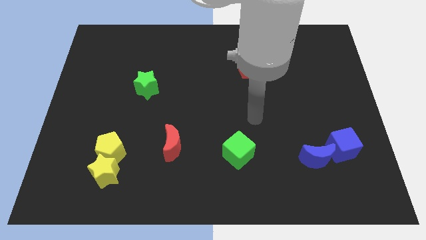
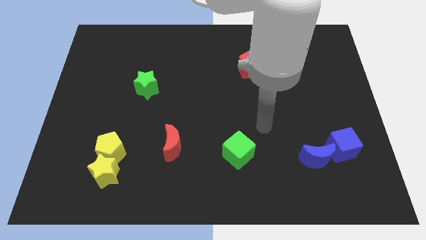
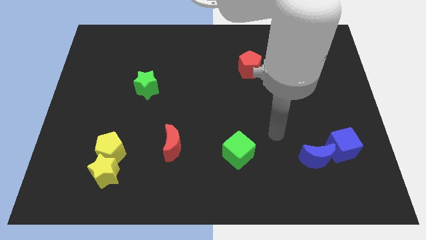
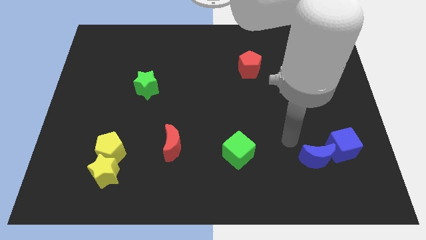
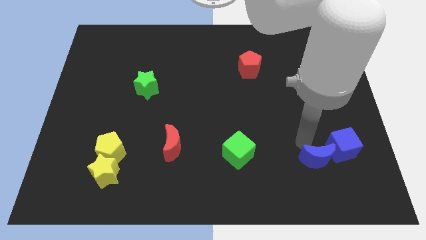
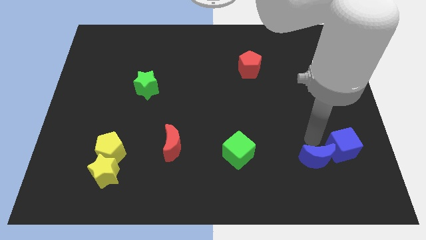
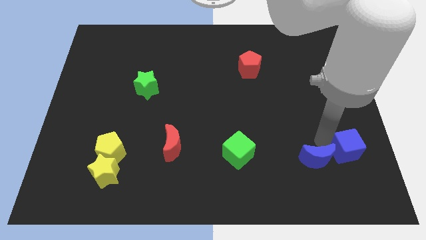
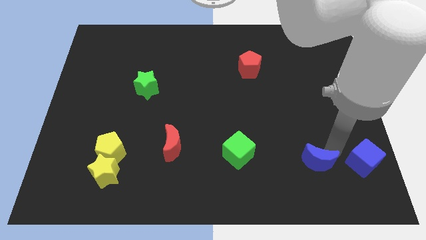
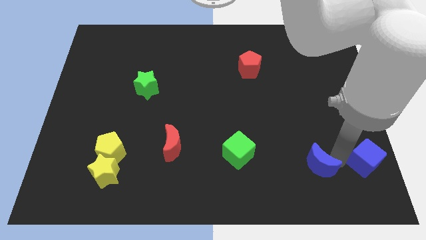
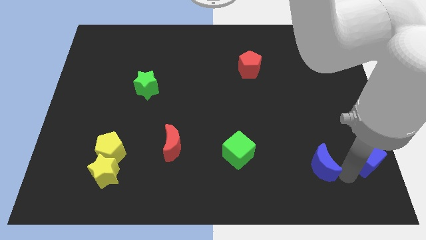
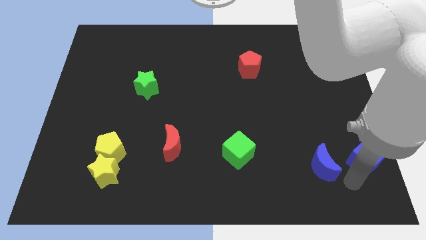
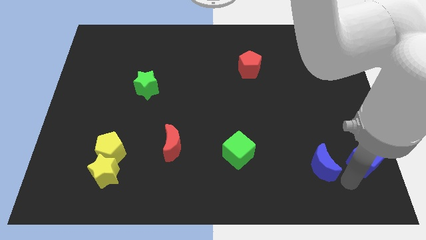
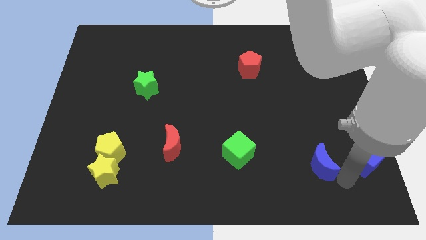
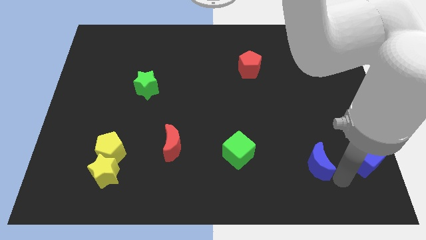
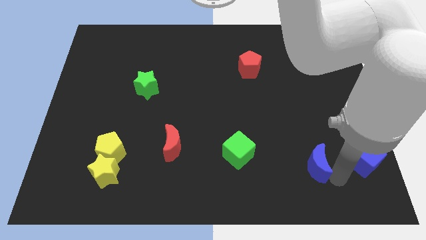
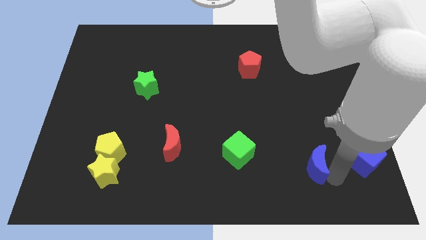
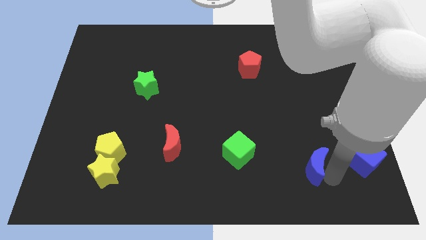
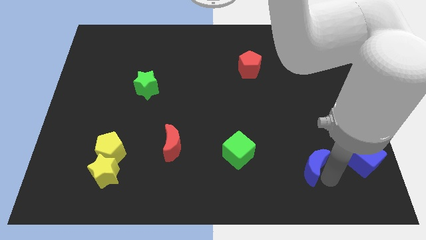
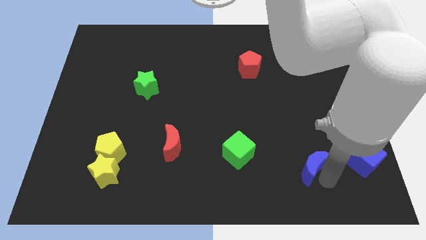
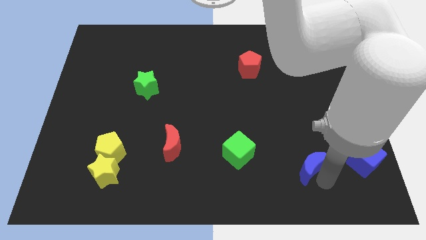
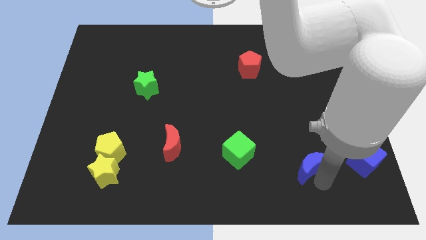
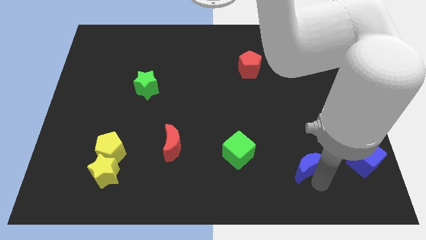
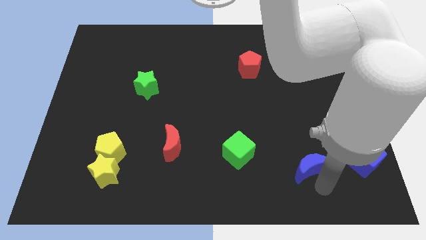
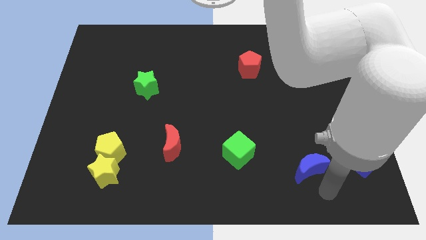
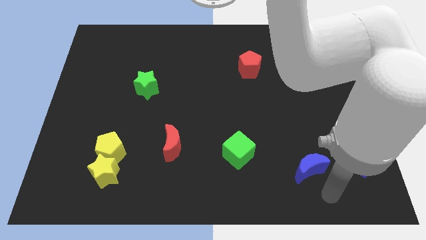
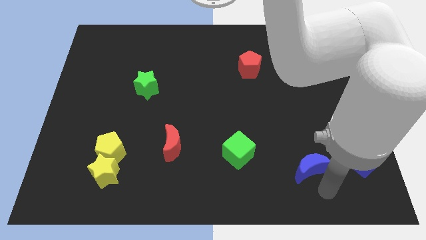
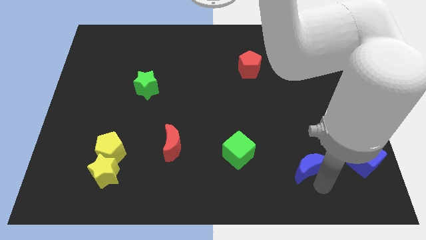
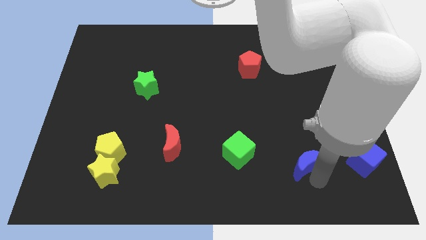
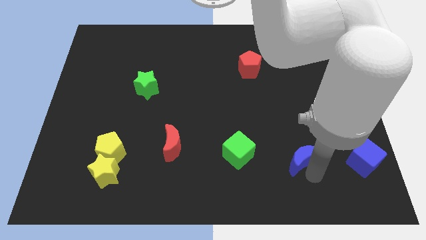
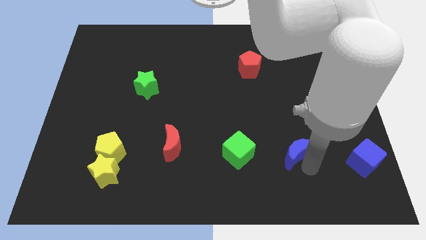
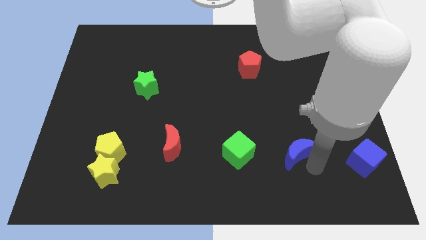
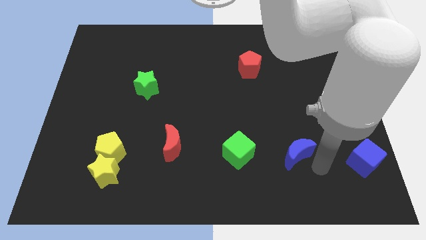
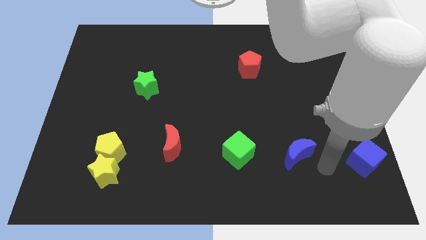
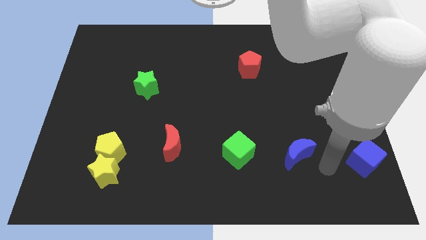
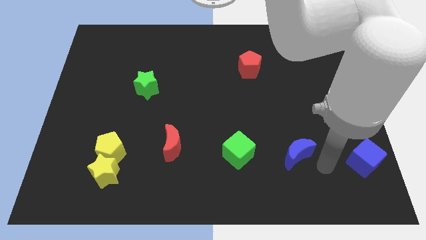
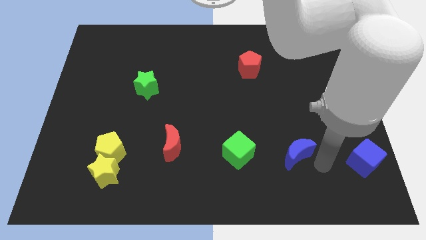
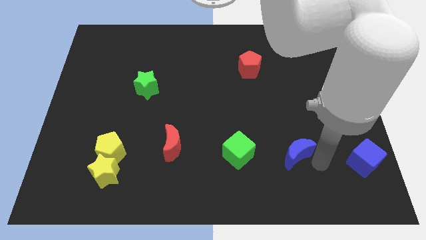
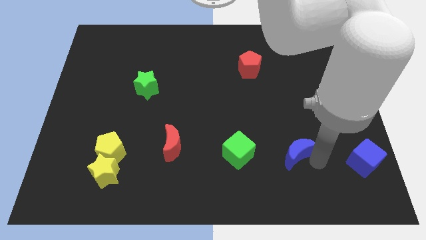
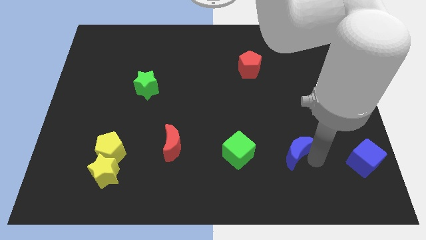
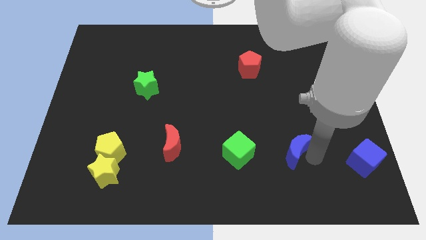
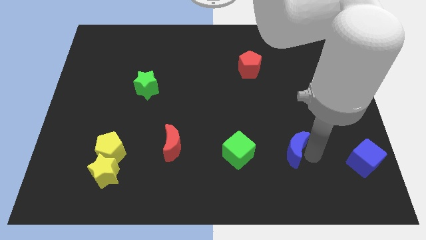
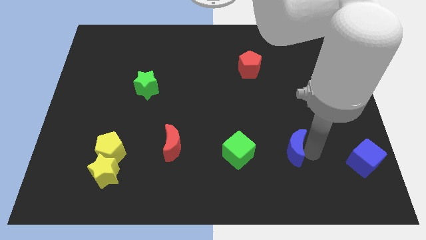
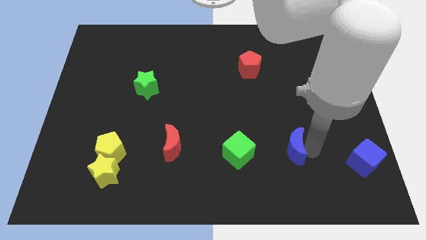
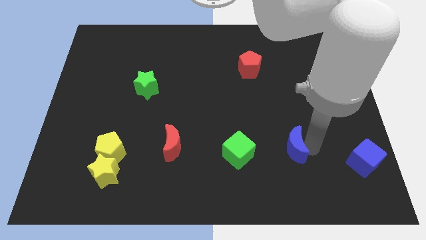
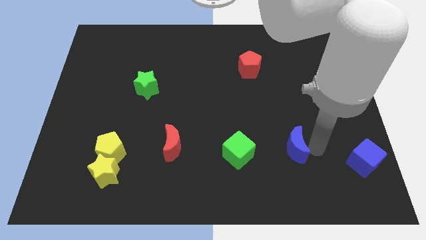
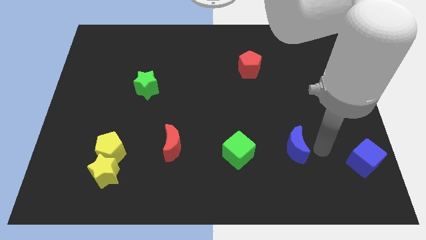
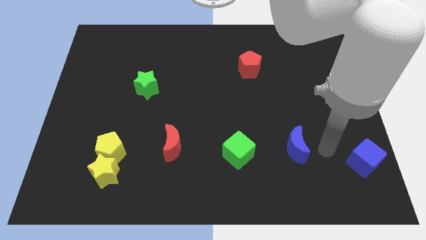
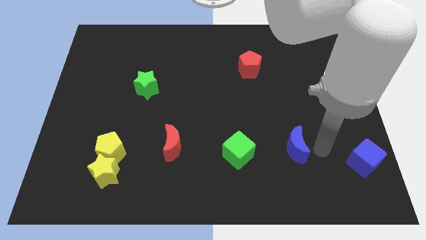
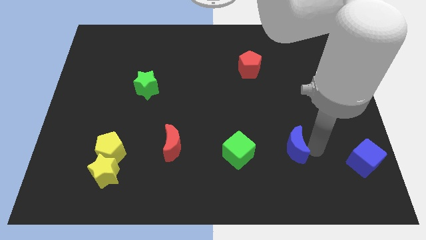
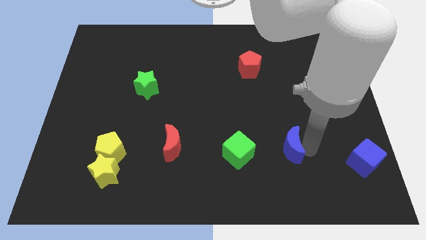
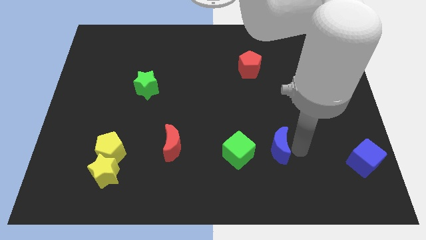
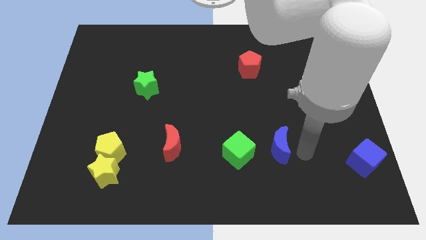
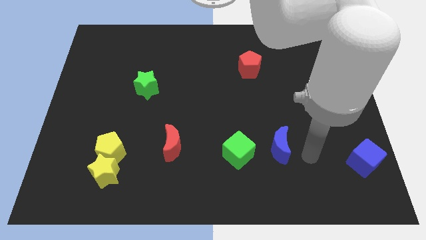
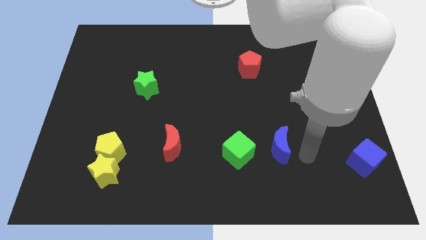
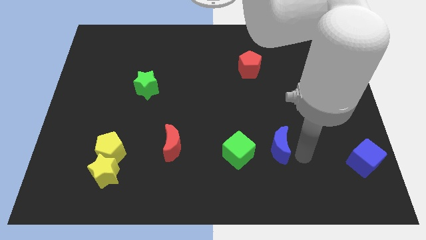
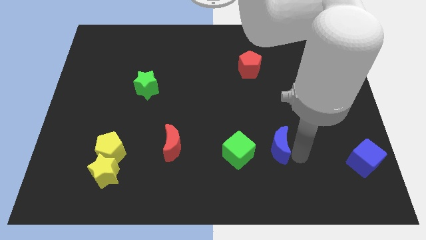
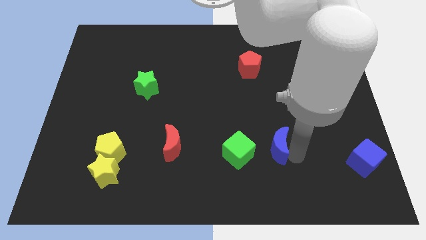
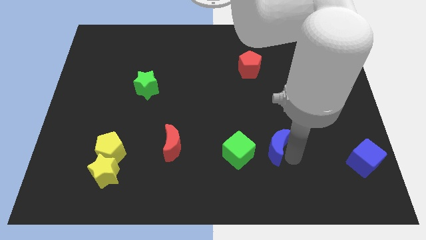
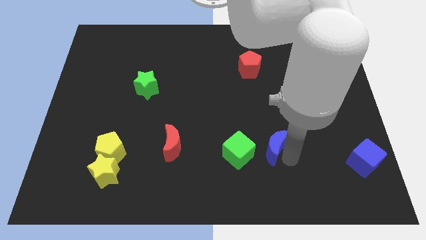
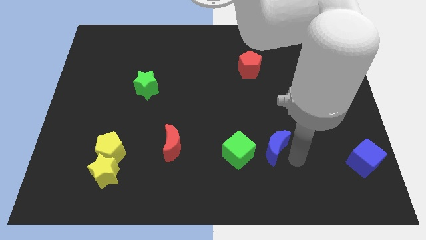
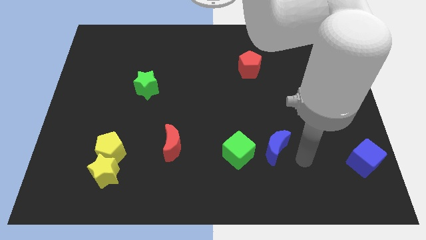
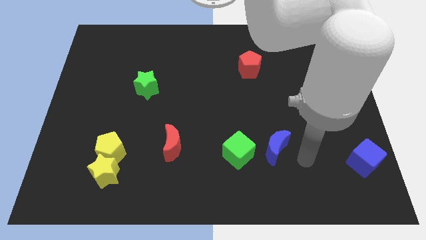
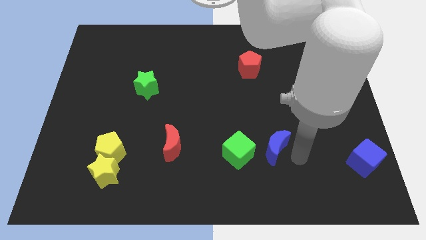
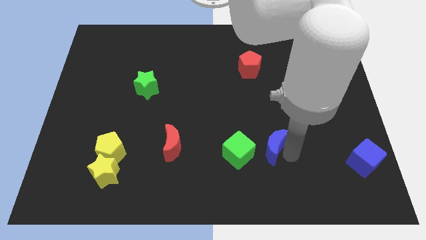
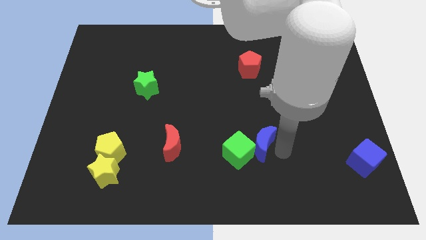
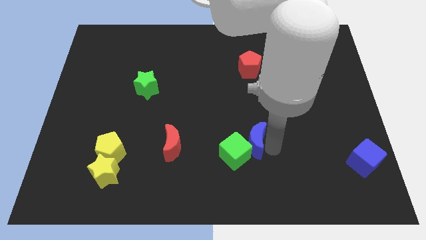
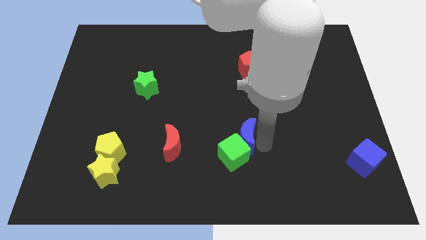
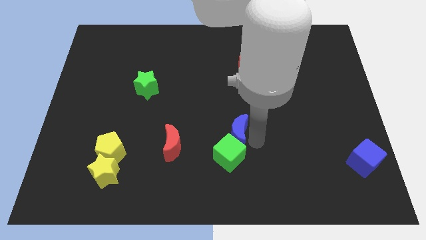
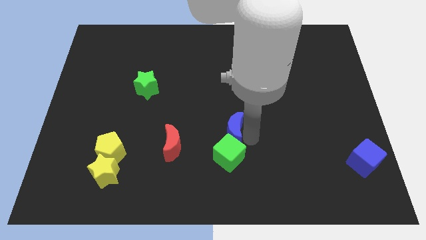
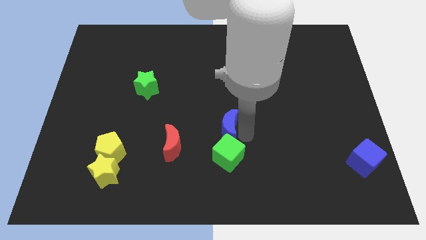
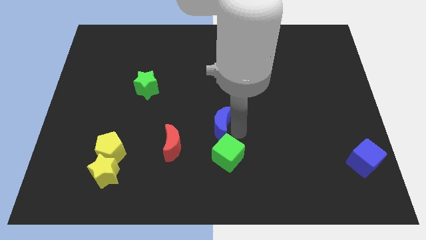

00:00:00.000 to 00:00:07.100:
put the blue moon to the top right of the red moon

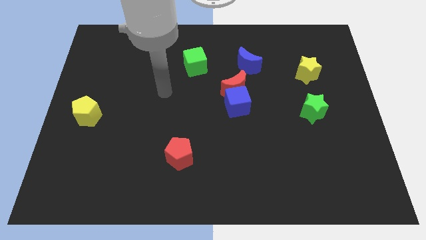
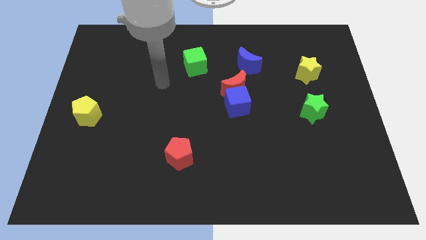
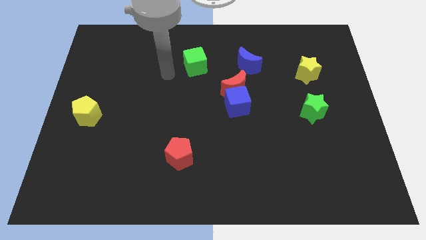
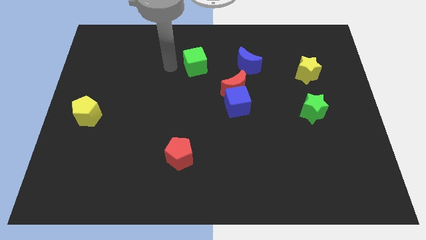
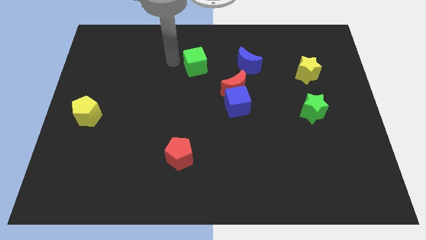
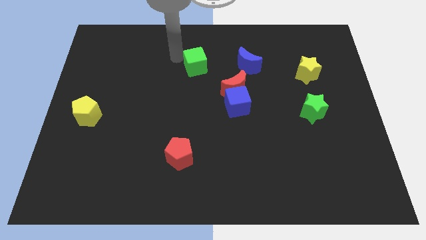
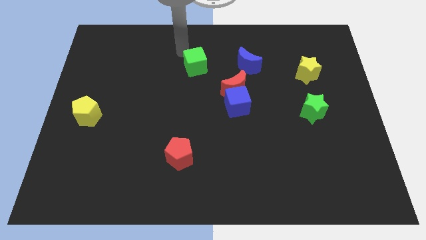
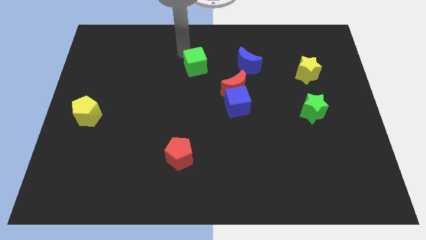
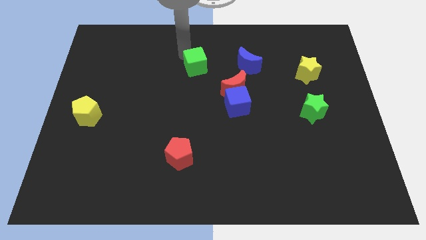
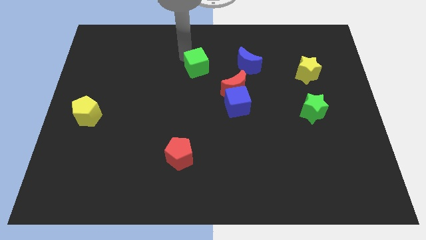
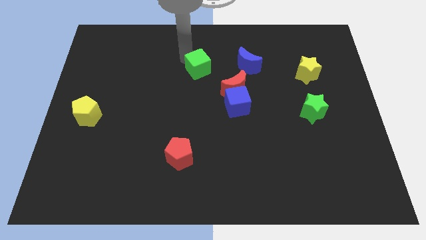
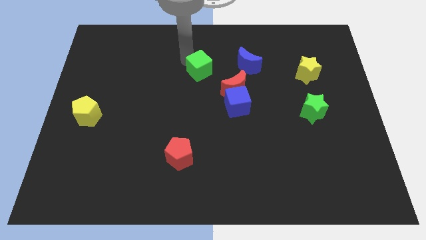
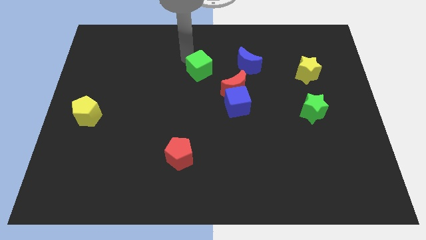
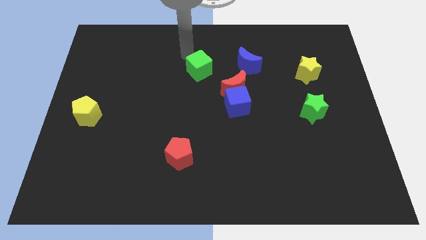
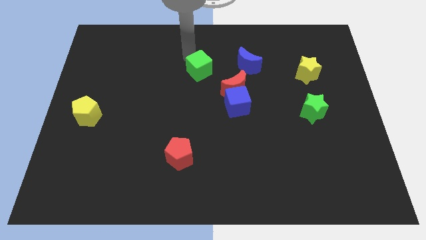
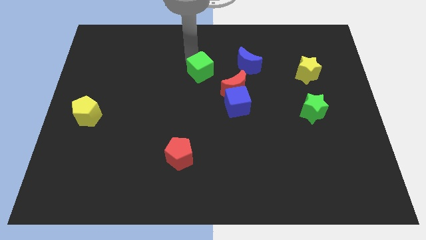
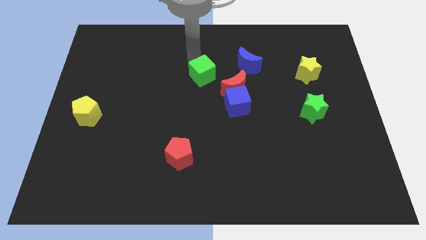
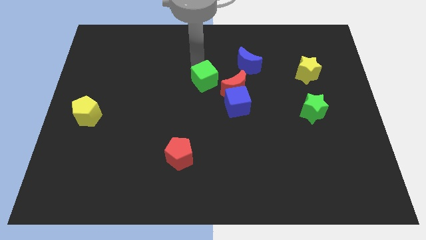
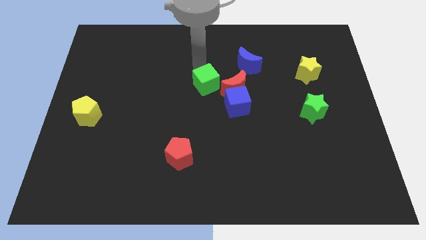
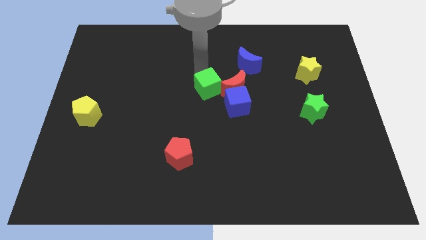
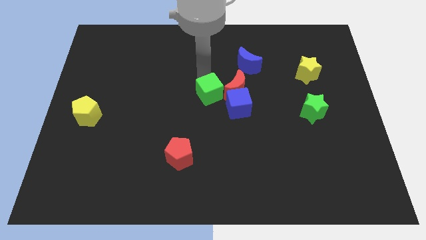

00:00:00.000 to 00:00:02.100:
put the green cube to the bottom left side of the red moon
